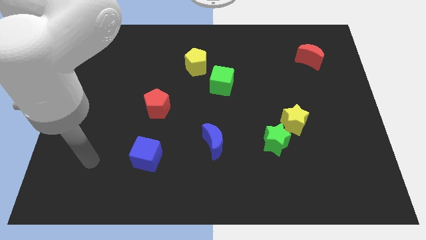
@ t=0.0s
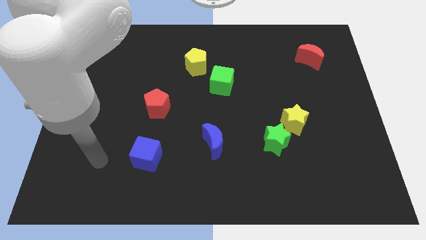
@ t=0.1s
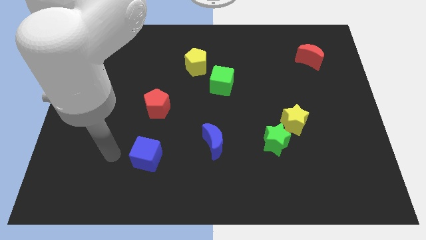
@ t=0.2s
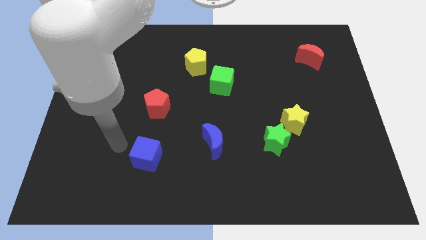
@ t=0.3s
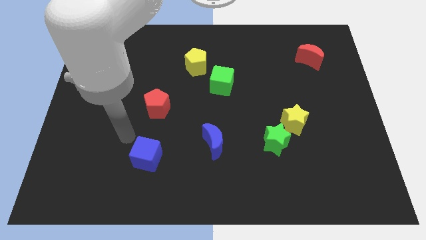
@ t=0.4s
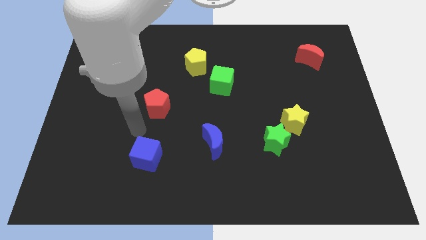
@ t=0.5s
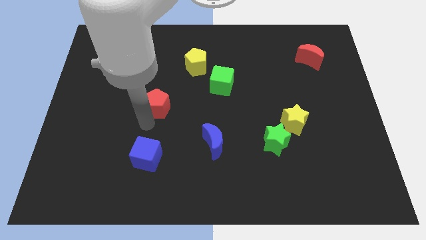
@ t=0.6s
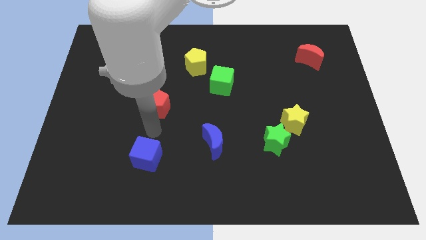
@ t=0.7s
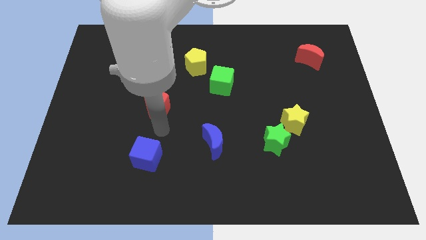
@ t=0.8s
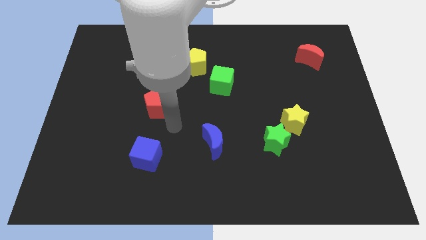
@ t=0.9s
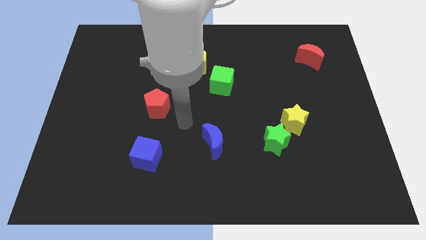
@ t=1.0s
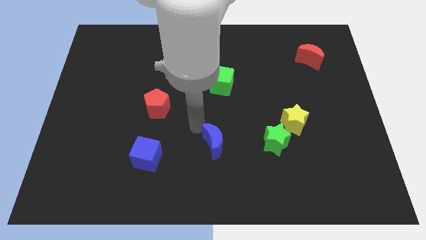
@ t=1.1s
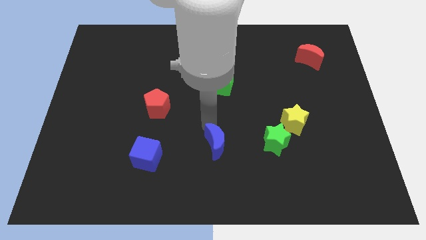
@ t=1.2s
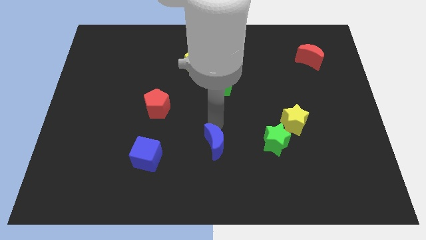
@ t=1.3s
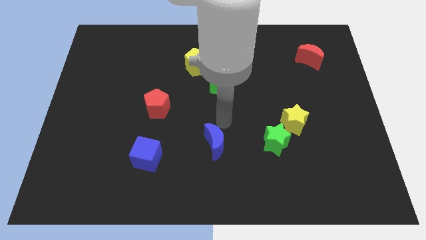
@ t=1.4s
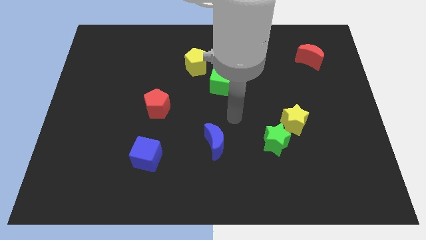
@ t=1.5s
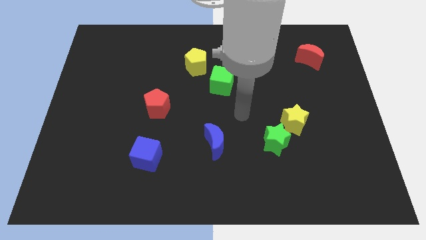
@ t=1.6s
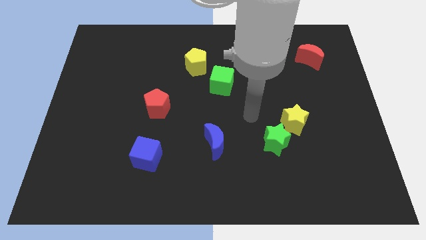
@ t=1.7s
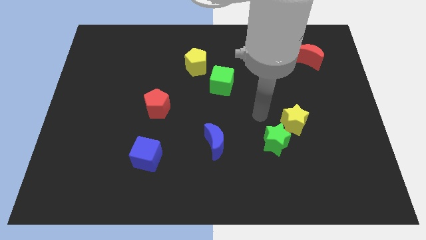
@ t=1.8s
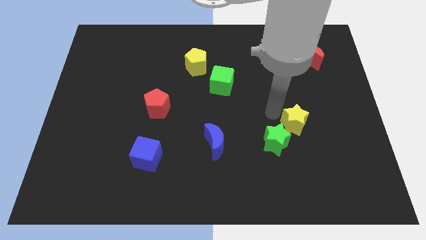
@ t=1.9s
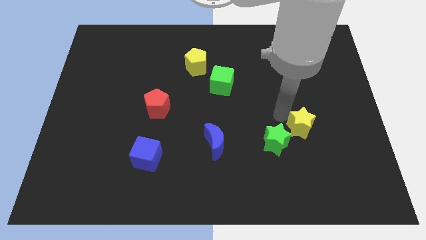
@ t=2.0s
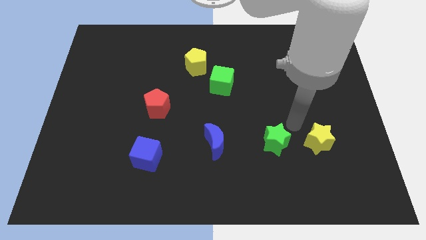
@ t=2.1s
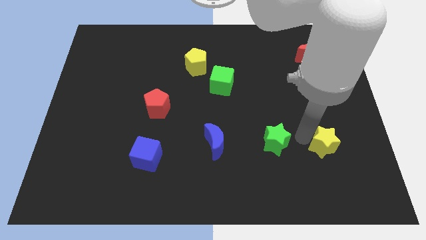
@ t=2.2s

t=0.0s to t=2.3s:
pull the green star apart from the yellow star

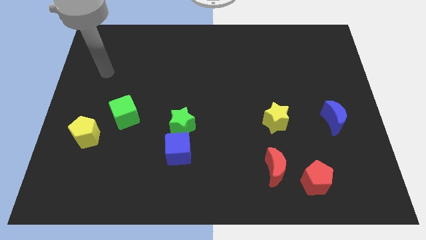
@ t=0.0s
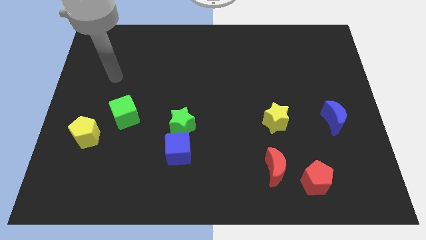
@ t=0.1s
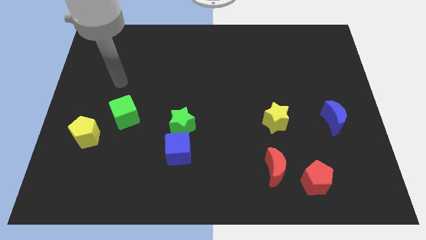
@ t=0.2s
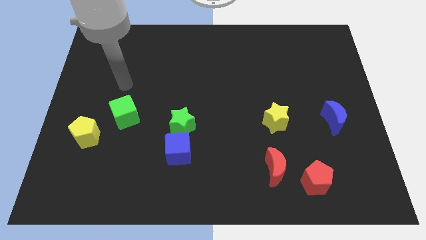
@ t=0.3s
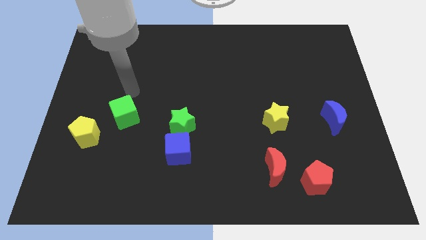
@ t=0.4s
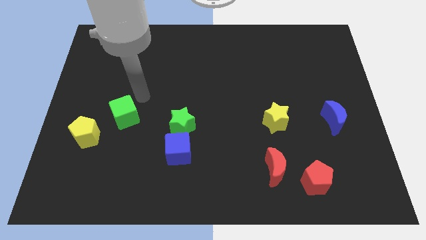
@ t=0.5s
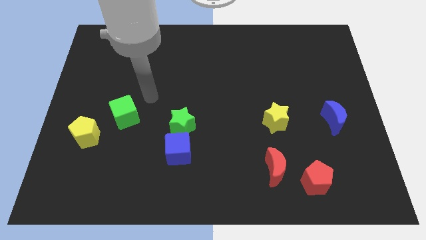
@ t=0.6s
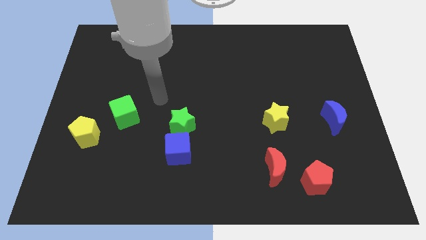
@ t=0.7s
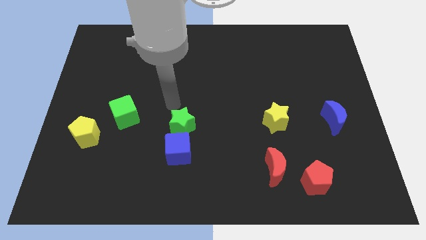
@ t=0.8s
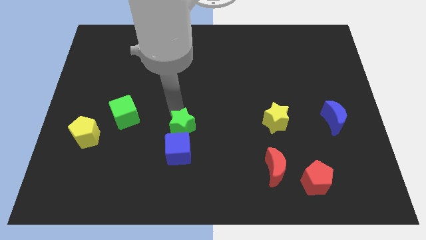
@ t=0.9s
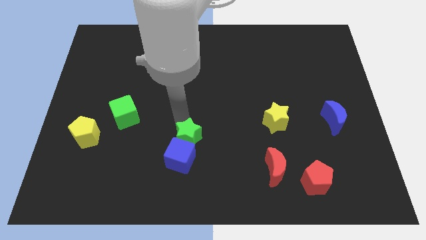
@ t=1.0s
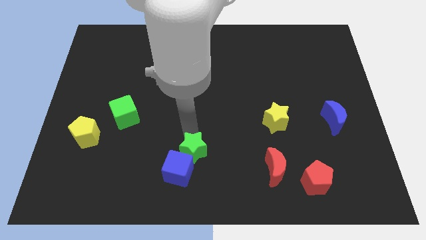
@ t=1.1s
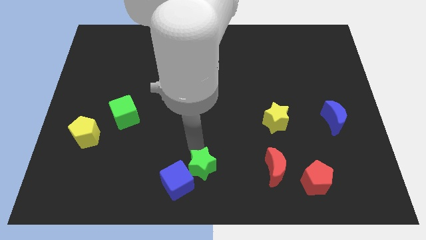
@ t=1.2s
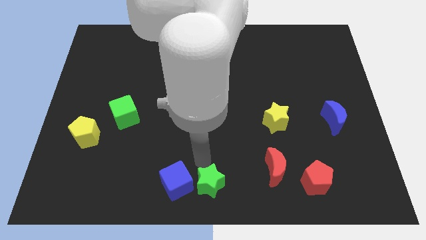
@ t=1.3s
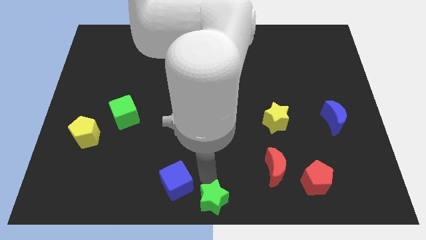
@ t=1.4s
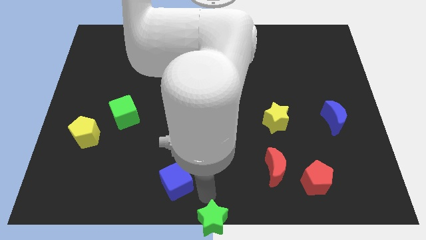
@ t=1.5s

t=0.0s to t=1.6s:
move the blue cube away from the green star

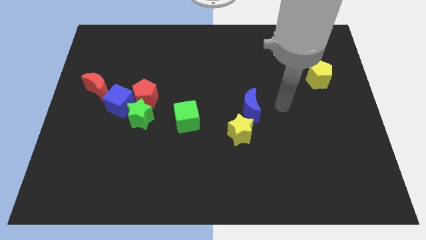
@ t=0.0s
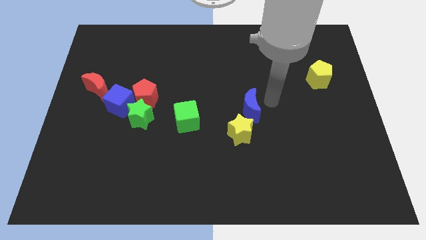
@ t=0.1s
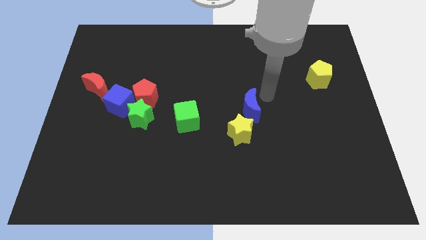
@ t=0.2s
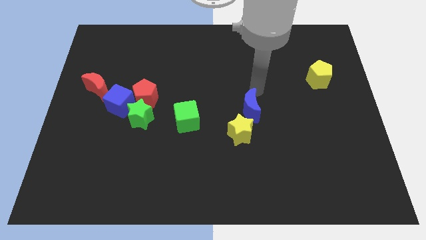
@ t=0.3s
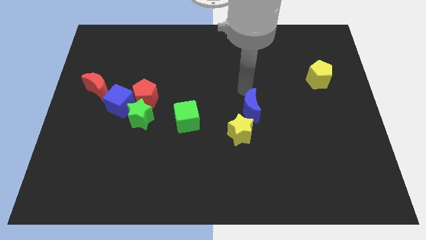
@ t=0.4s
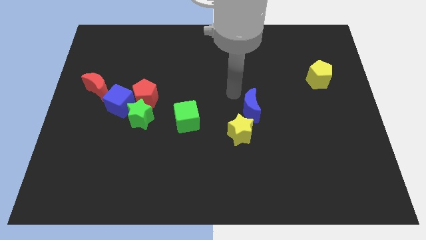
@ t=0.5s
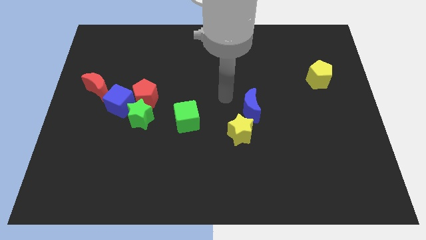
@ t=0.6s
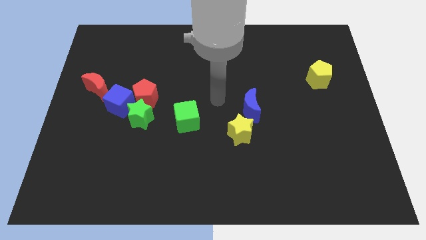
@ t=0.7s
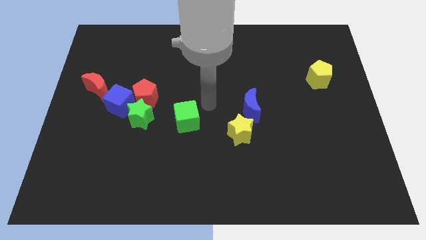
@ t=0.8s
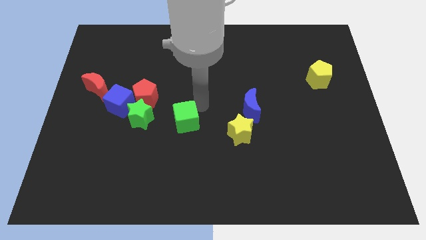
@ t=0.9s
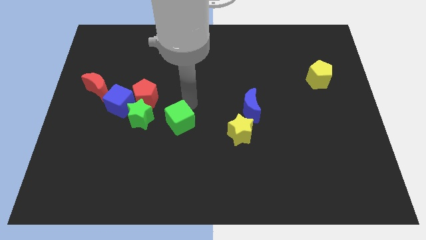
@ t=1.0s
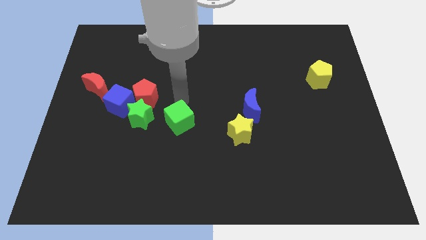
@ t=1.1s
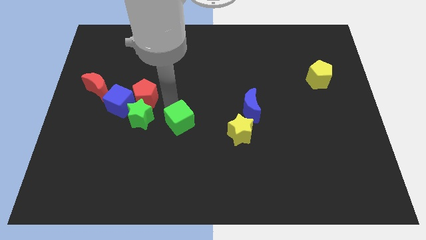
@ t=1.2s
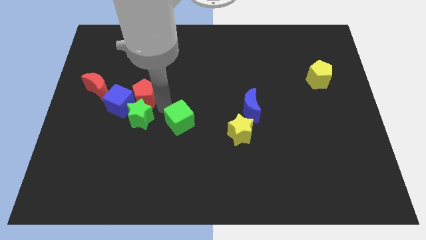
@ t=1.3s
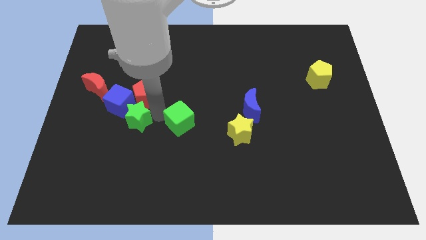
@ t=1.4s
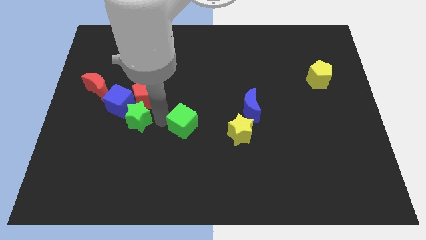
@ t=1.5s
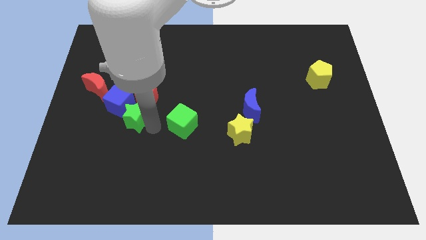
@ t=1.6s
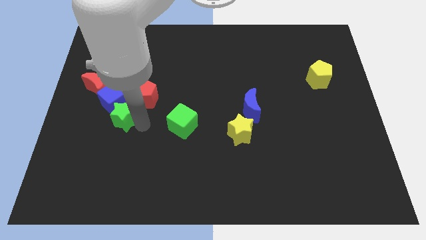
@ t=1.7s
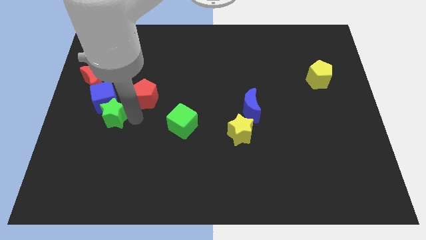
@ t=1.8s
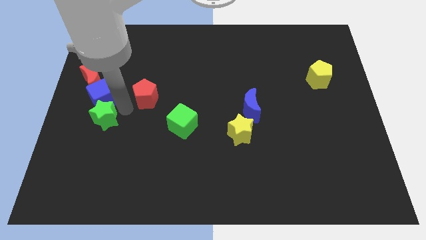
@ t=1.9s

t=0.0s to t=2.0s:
pull the red pentagon apart from the green star and blue cube

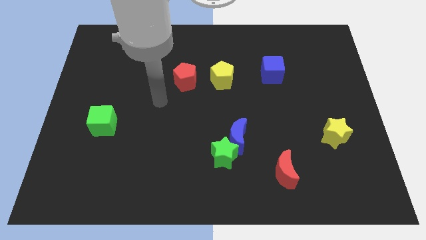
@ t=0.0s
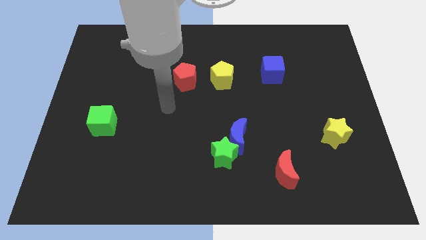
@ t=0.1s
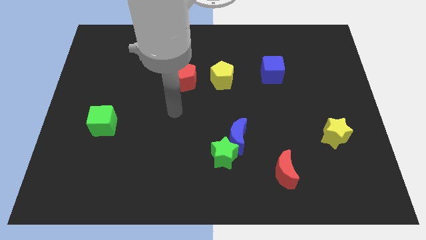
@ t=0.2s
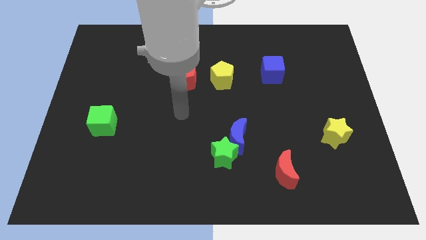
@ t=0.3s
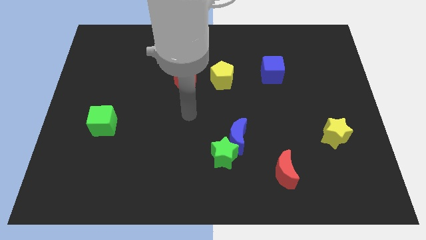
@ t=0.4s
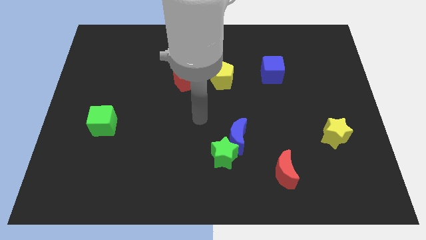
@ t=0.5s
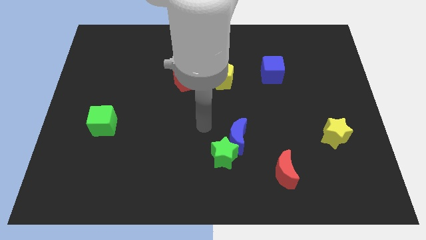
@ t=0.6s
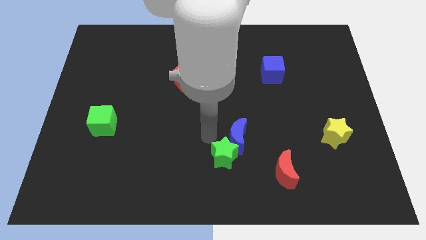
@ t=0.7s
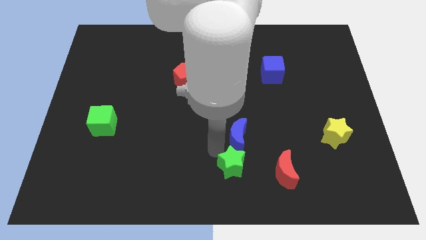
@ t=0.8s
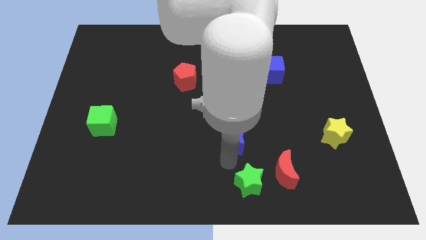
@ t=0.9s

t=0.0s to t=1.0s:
pull the blue moon apart from the green star

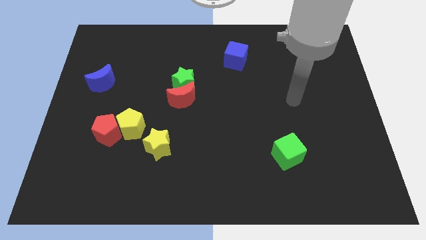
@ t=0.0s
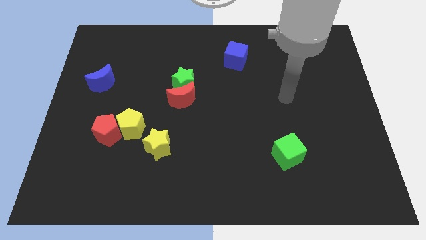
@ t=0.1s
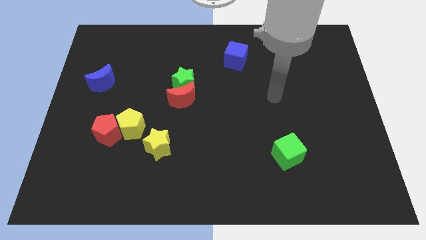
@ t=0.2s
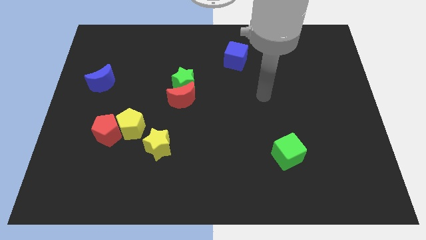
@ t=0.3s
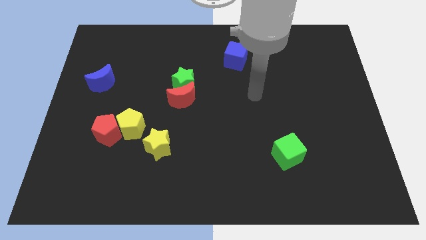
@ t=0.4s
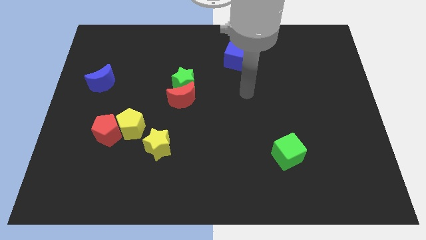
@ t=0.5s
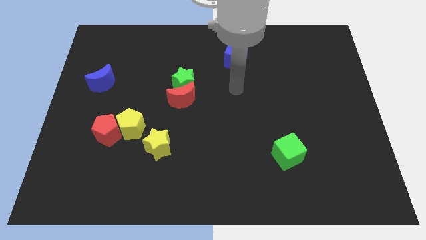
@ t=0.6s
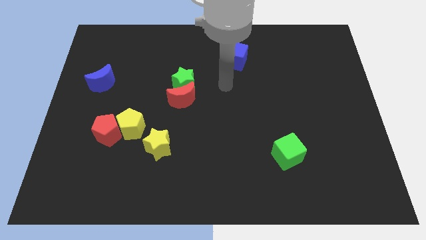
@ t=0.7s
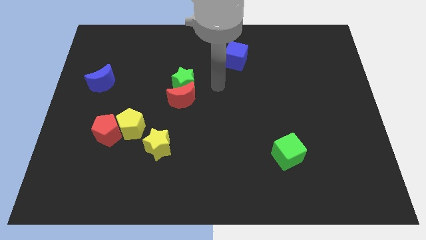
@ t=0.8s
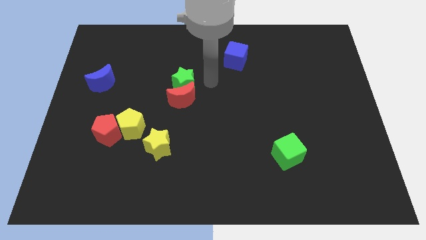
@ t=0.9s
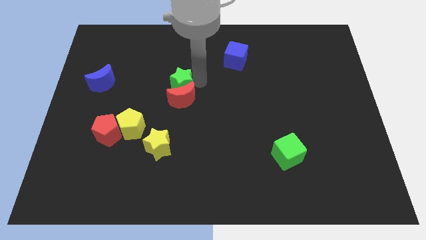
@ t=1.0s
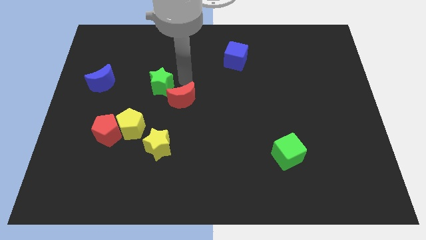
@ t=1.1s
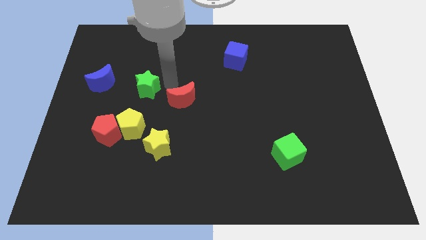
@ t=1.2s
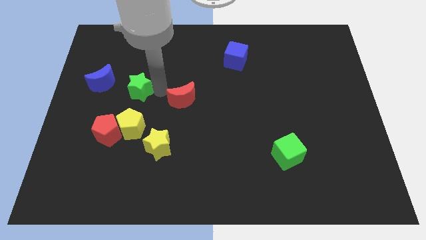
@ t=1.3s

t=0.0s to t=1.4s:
move the red moon away from the green star

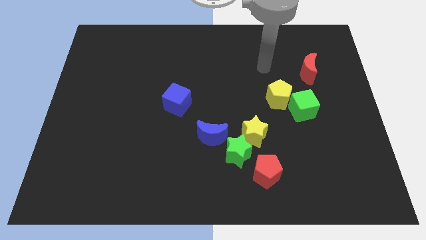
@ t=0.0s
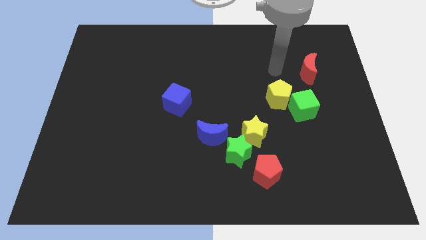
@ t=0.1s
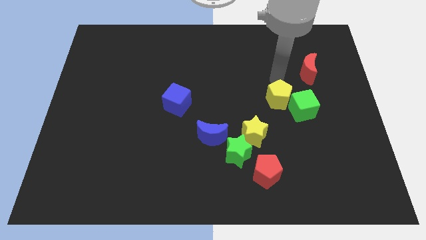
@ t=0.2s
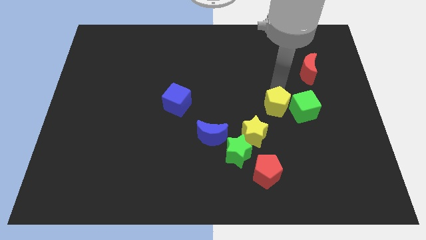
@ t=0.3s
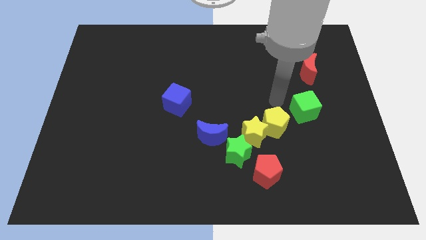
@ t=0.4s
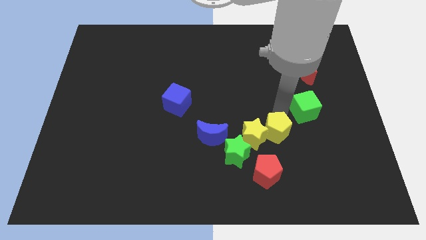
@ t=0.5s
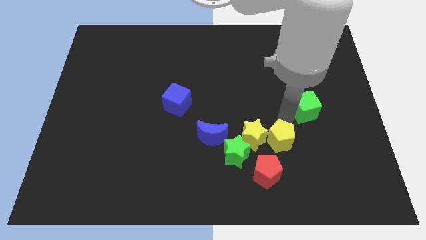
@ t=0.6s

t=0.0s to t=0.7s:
move the green cube away from the yellow pentagon

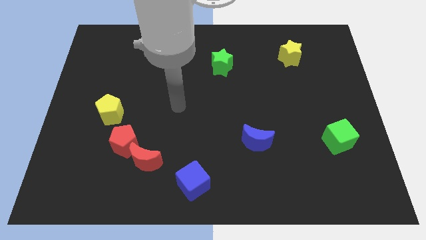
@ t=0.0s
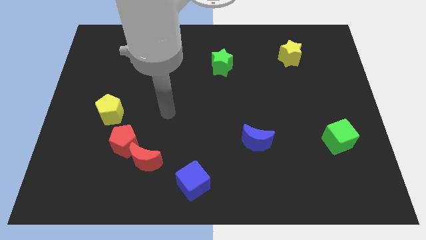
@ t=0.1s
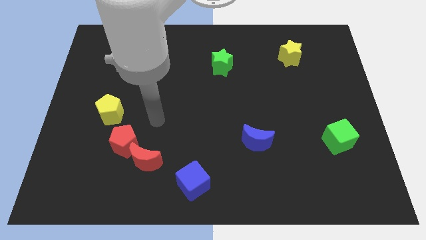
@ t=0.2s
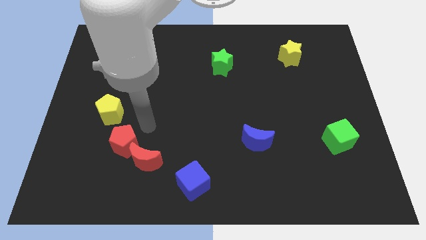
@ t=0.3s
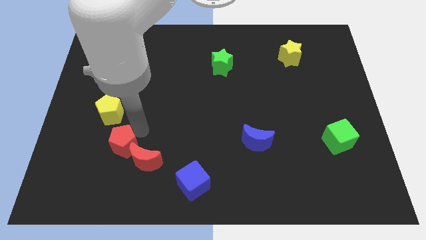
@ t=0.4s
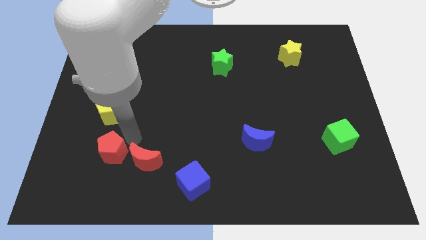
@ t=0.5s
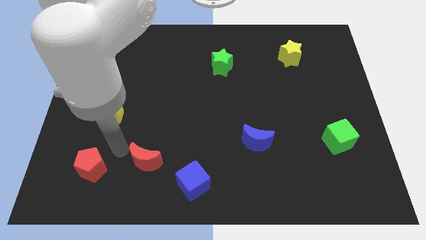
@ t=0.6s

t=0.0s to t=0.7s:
move the red moon away from the red pentagon
